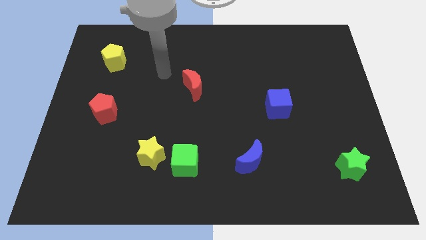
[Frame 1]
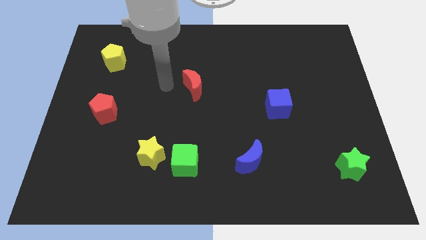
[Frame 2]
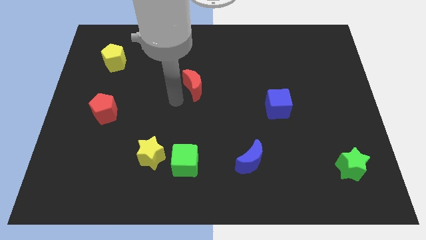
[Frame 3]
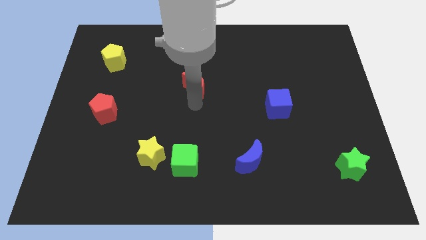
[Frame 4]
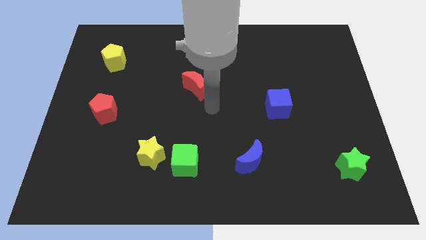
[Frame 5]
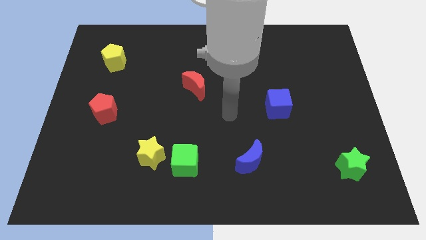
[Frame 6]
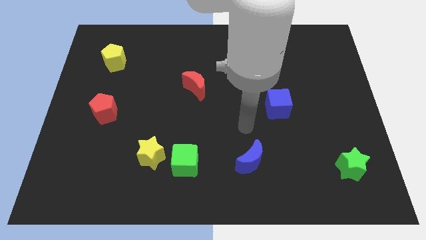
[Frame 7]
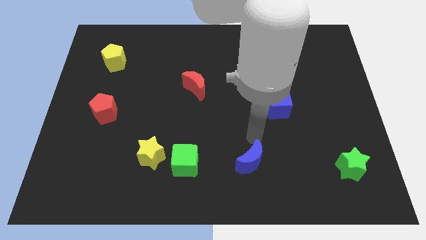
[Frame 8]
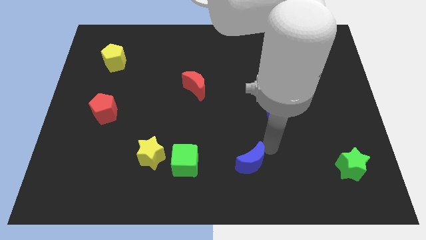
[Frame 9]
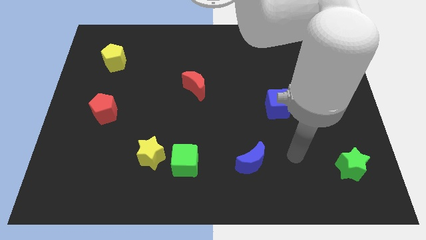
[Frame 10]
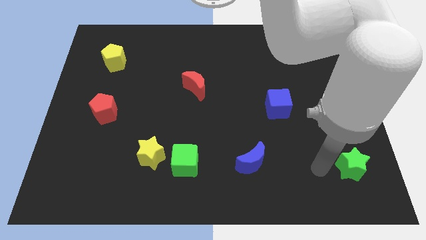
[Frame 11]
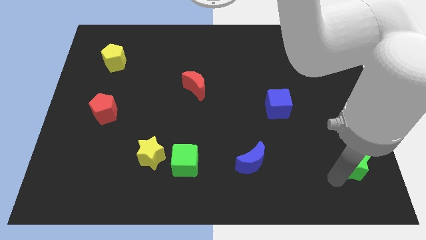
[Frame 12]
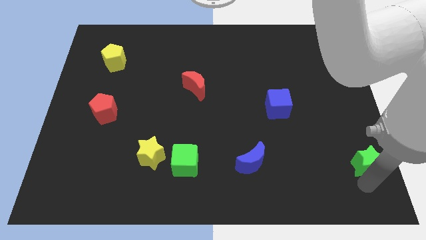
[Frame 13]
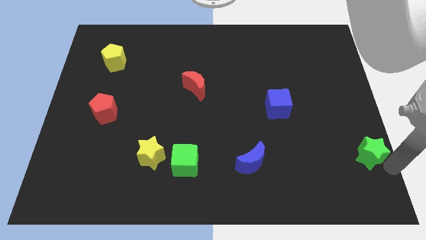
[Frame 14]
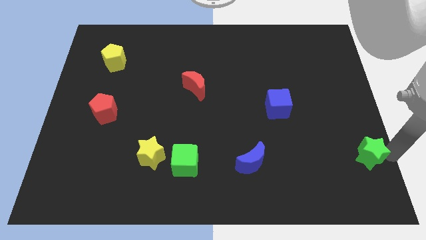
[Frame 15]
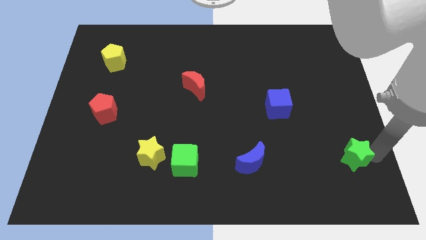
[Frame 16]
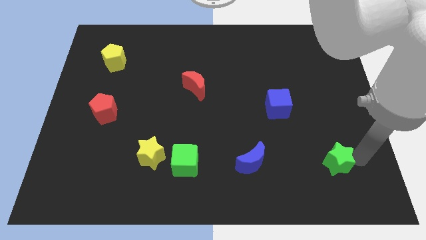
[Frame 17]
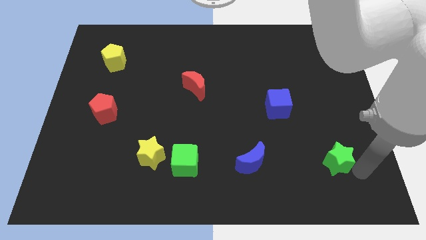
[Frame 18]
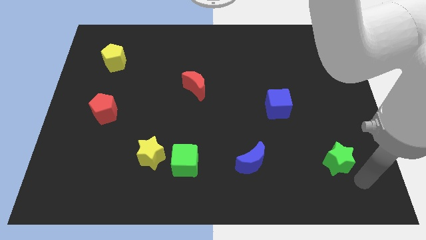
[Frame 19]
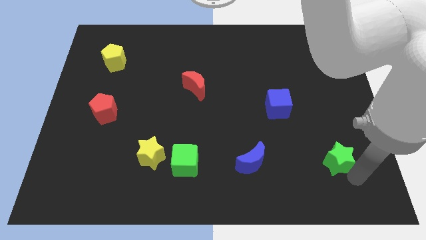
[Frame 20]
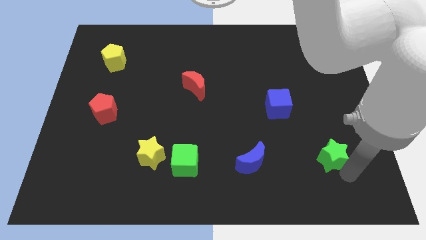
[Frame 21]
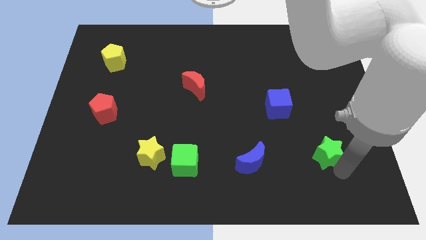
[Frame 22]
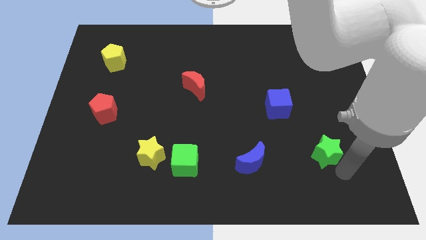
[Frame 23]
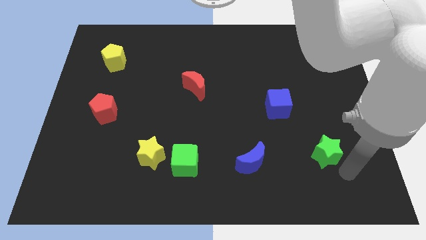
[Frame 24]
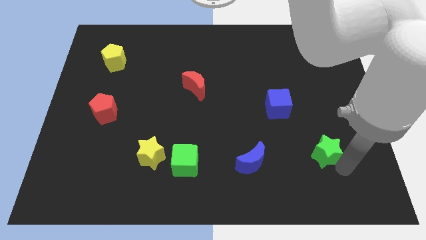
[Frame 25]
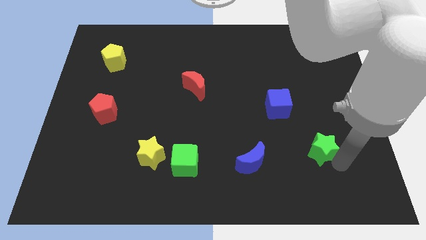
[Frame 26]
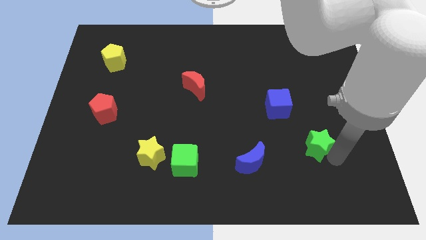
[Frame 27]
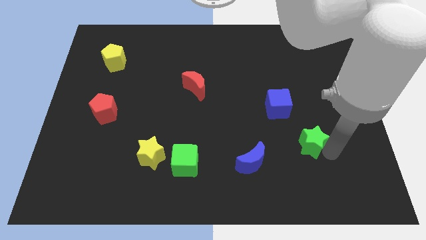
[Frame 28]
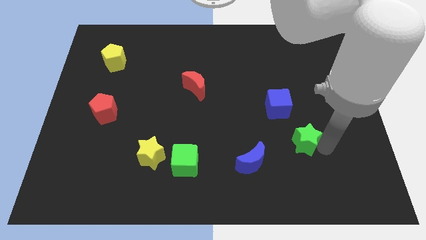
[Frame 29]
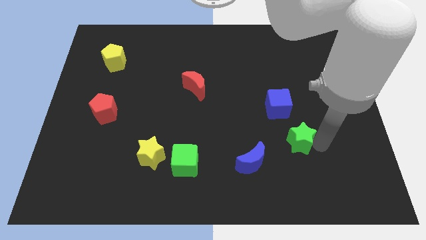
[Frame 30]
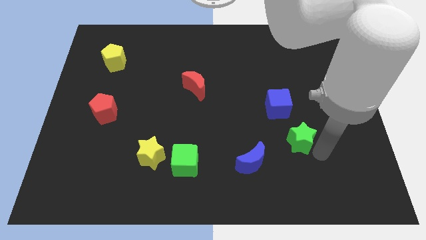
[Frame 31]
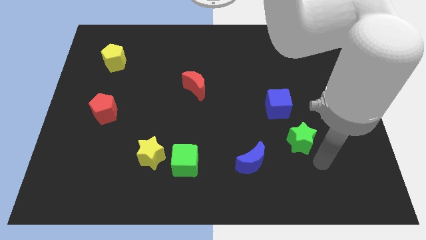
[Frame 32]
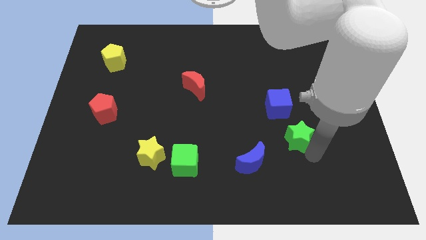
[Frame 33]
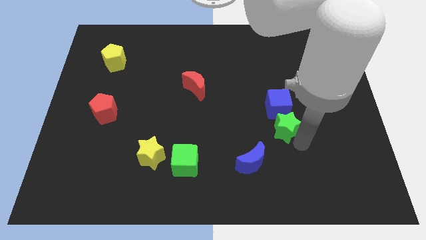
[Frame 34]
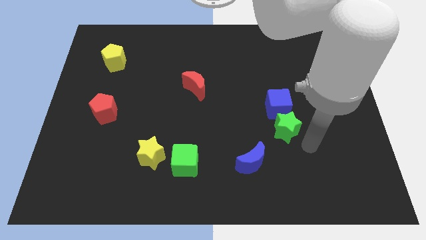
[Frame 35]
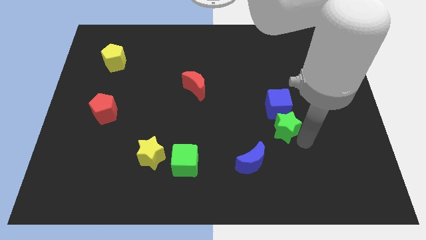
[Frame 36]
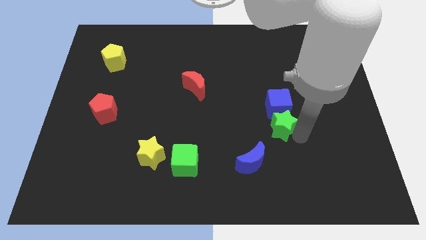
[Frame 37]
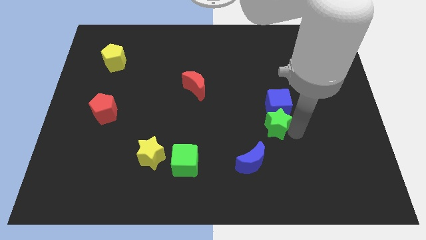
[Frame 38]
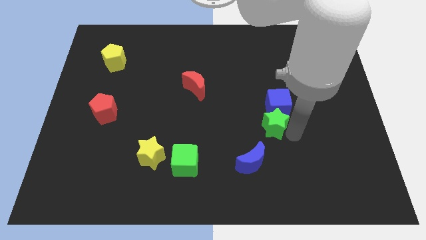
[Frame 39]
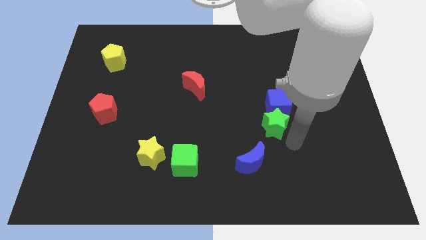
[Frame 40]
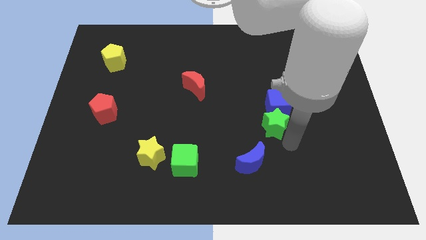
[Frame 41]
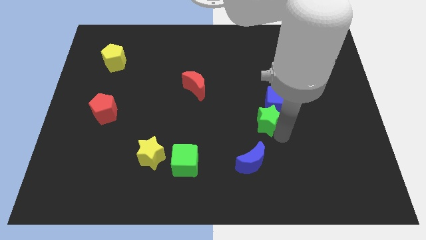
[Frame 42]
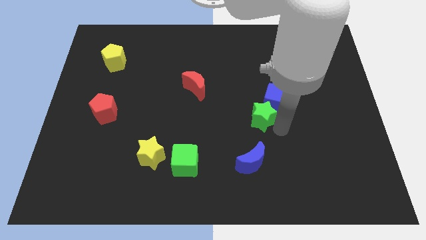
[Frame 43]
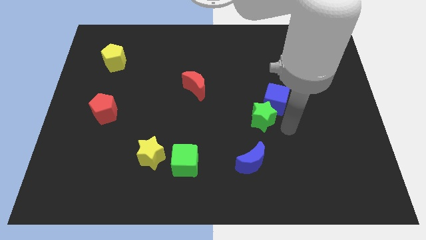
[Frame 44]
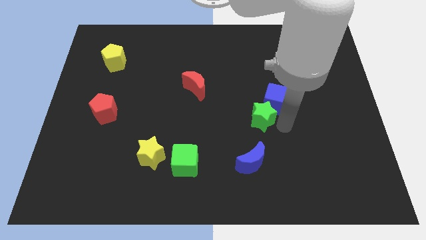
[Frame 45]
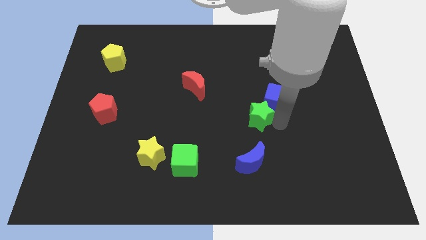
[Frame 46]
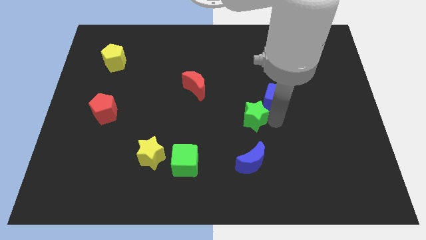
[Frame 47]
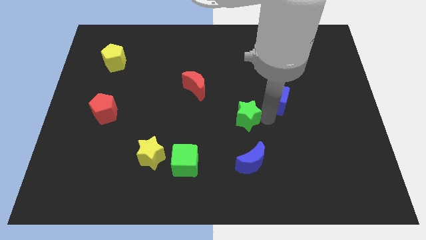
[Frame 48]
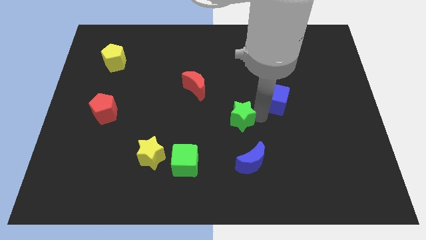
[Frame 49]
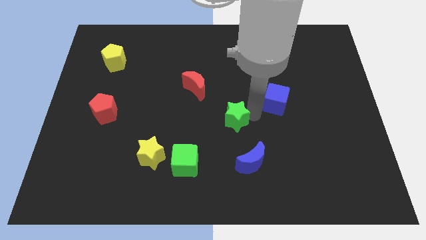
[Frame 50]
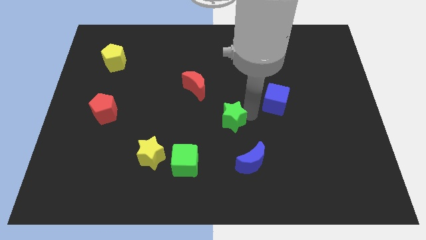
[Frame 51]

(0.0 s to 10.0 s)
put the green star to the bottom right side of the red moon

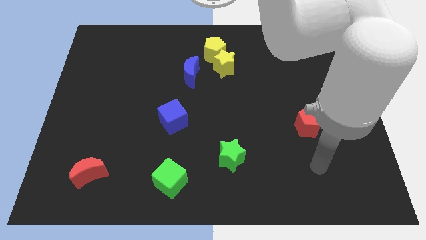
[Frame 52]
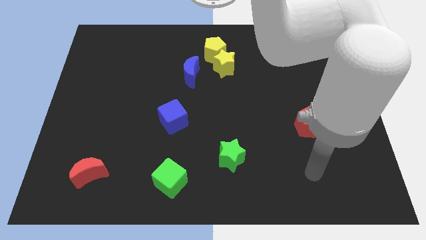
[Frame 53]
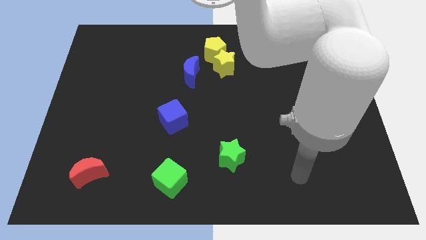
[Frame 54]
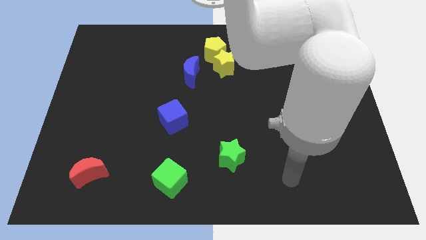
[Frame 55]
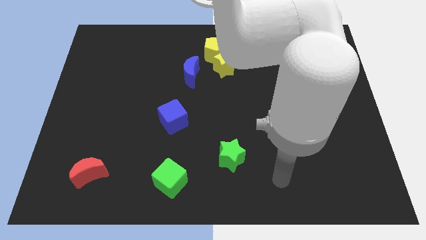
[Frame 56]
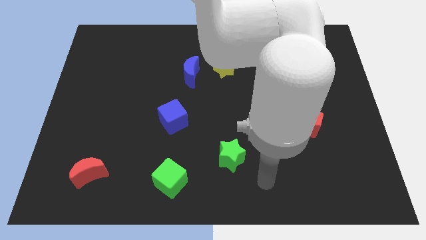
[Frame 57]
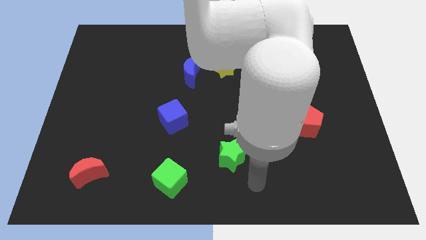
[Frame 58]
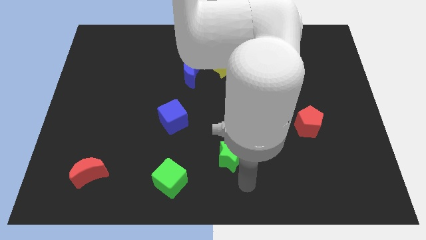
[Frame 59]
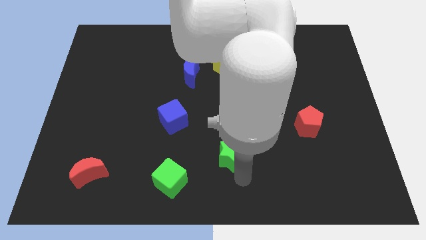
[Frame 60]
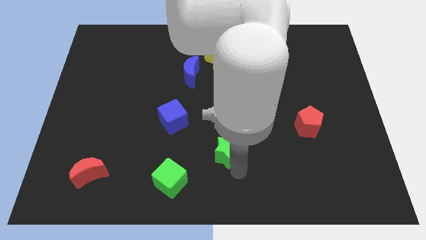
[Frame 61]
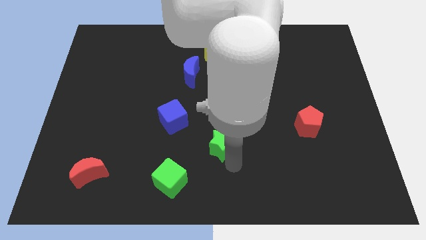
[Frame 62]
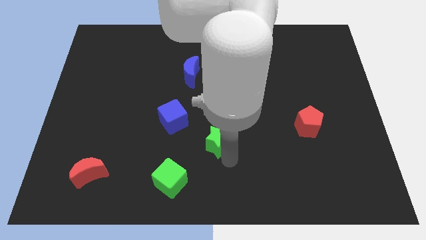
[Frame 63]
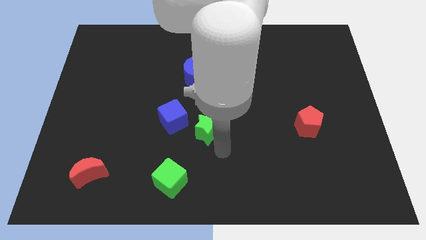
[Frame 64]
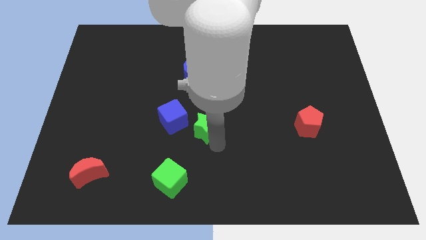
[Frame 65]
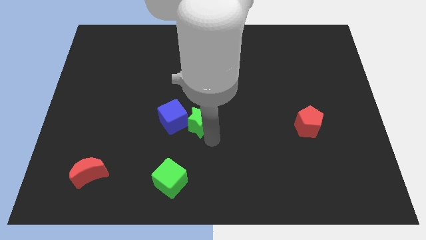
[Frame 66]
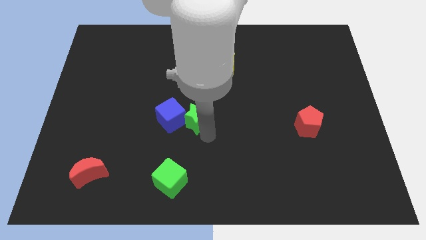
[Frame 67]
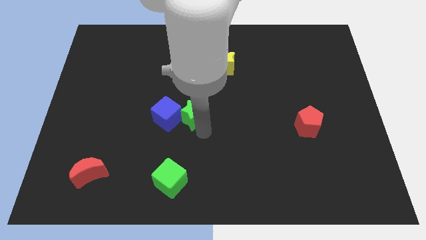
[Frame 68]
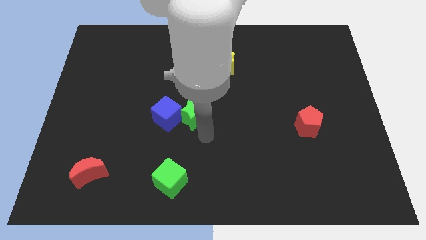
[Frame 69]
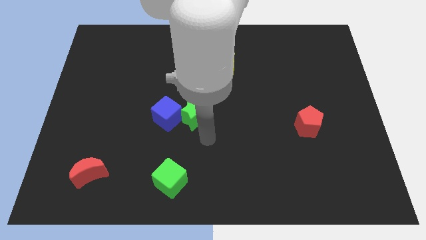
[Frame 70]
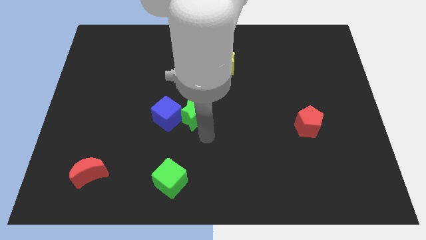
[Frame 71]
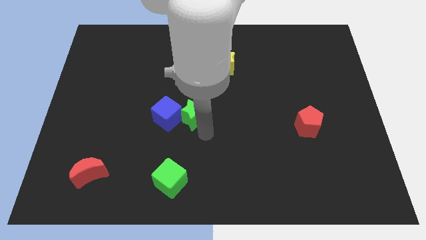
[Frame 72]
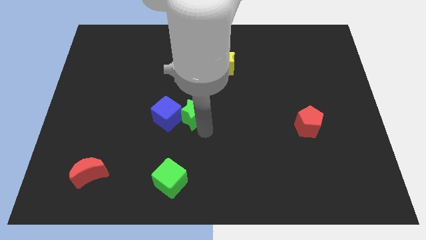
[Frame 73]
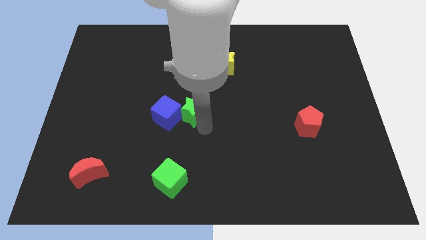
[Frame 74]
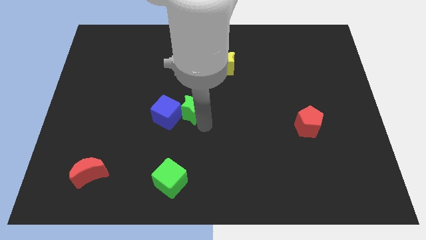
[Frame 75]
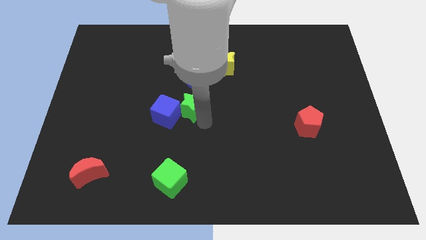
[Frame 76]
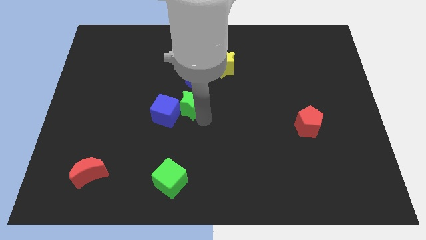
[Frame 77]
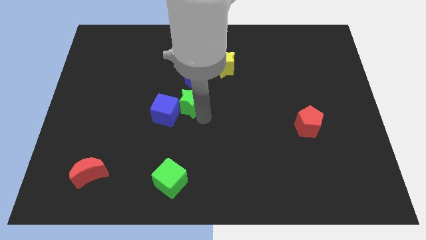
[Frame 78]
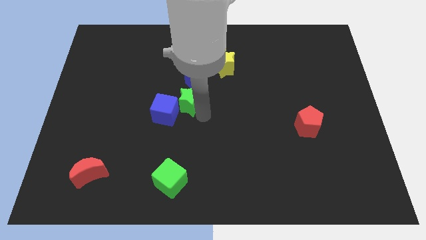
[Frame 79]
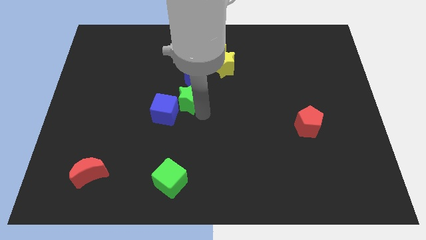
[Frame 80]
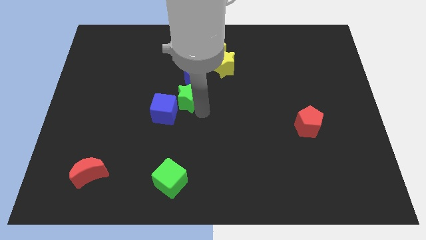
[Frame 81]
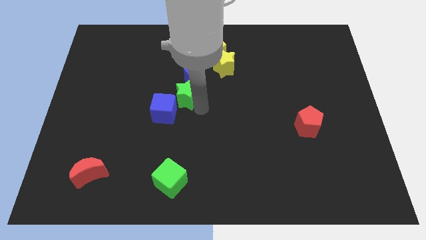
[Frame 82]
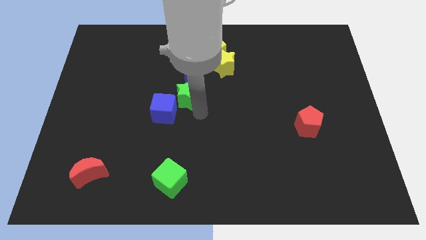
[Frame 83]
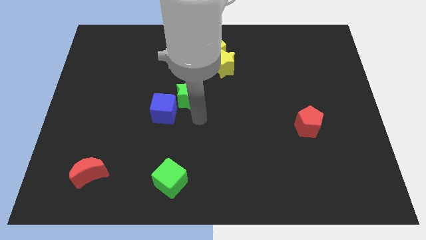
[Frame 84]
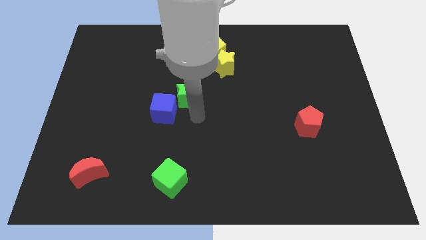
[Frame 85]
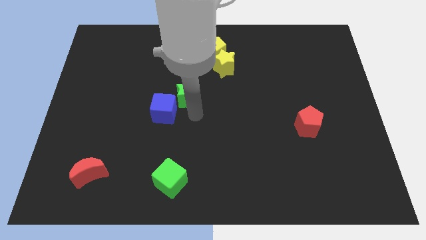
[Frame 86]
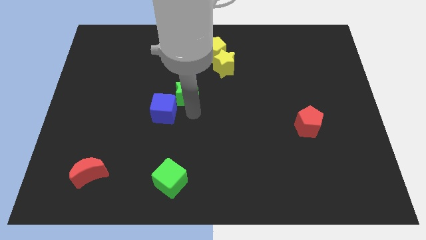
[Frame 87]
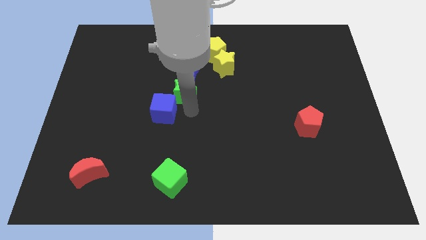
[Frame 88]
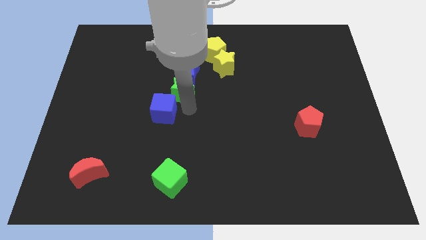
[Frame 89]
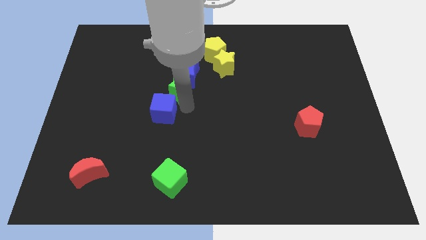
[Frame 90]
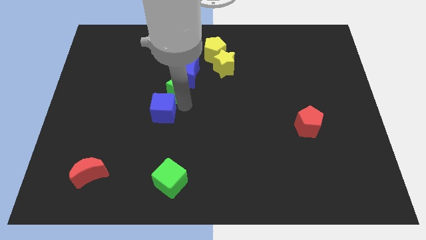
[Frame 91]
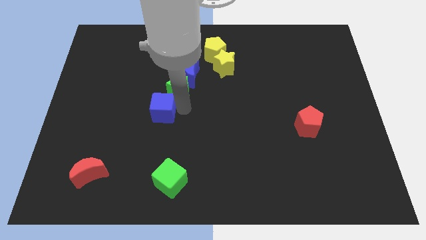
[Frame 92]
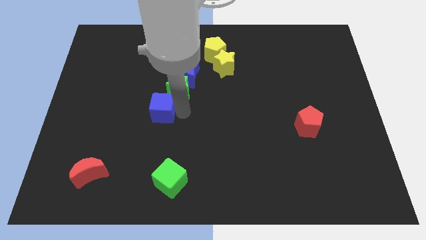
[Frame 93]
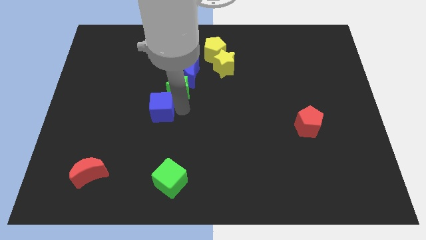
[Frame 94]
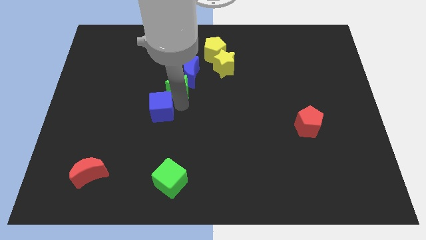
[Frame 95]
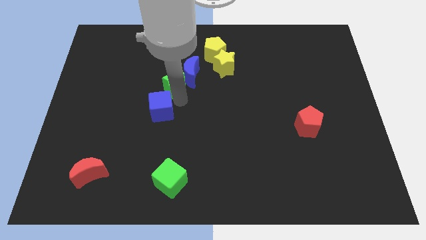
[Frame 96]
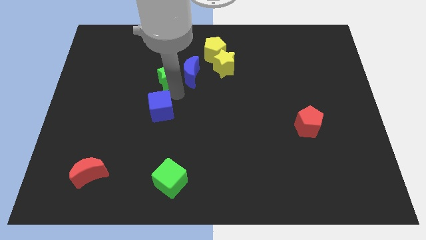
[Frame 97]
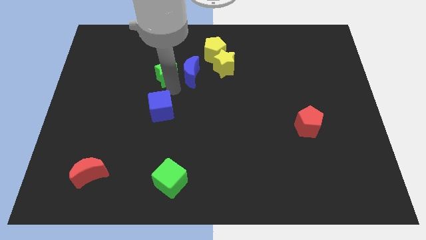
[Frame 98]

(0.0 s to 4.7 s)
push the green star to the top left side of the blue moon
